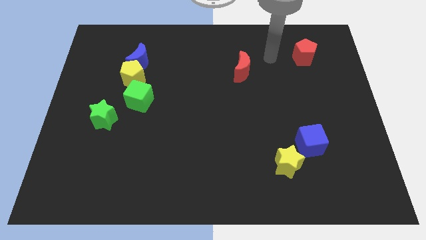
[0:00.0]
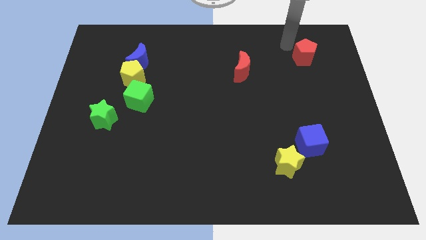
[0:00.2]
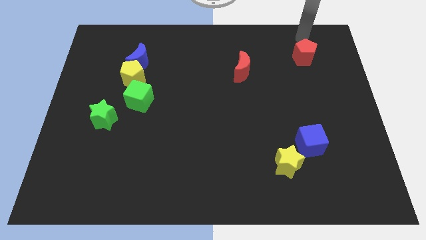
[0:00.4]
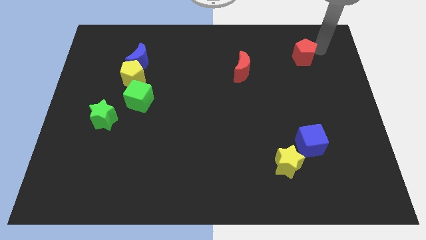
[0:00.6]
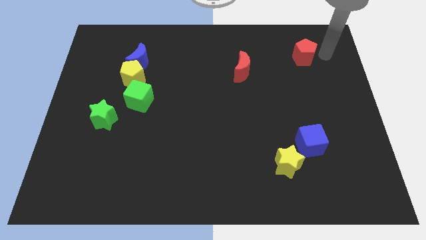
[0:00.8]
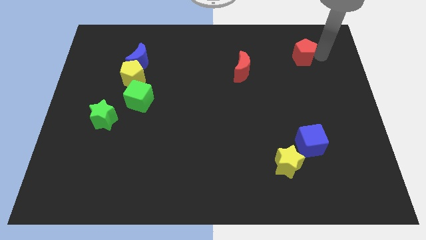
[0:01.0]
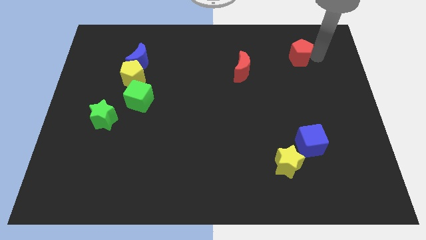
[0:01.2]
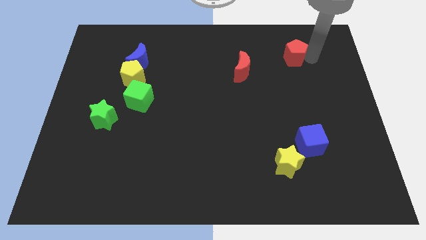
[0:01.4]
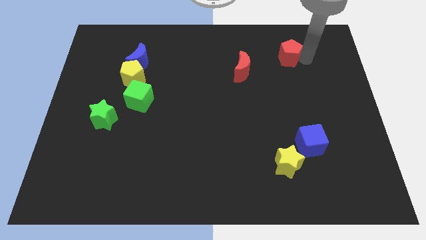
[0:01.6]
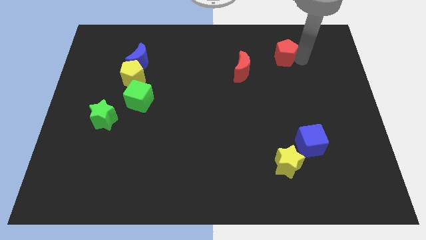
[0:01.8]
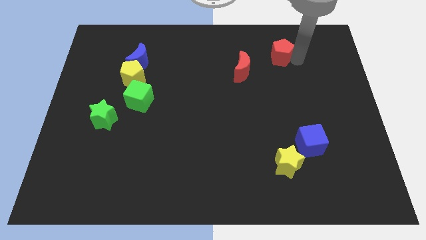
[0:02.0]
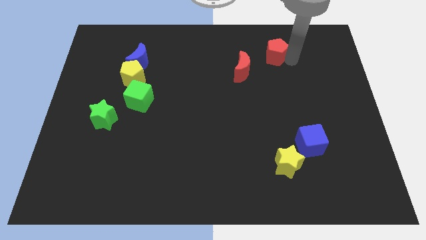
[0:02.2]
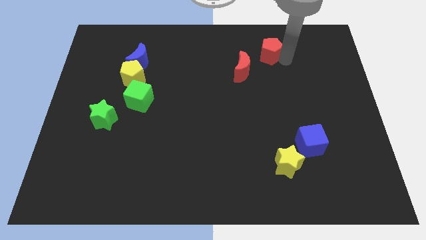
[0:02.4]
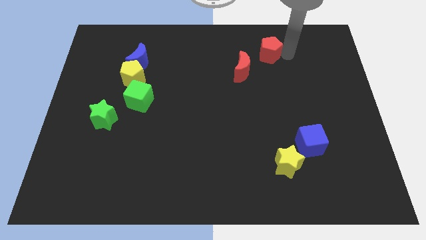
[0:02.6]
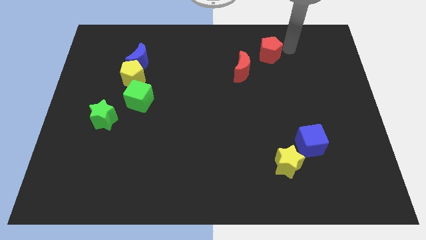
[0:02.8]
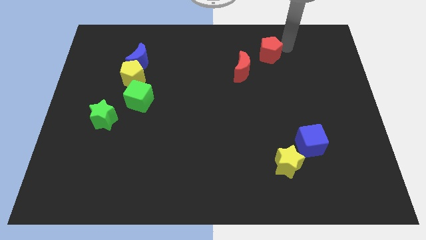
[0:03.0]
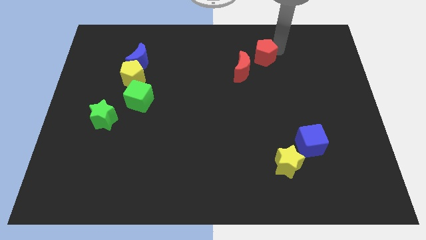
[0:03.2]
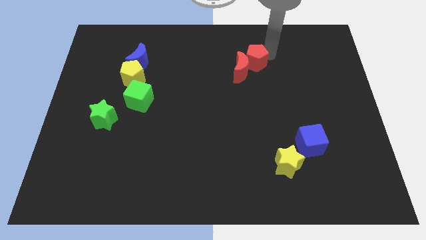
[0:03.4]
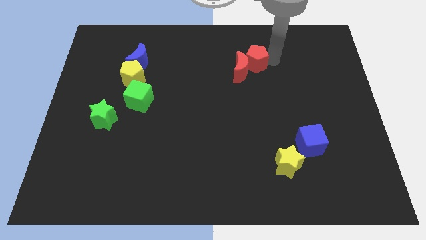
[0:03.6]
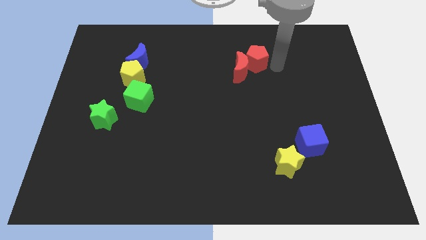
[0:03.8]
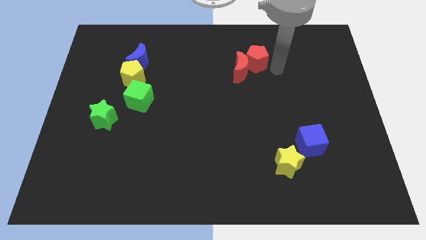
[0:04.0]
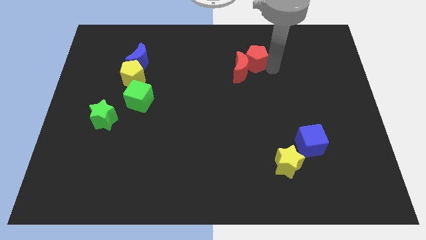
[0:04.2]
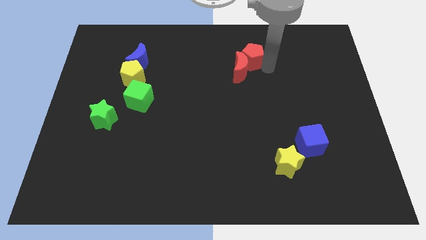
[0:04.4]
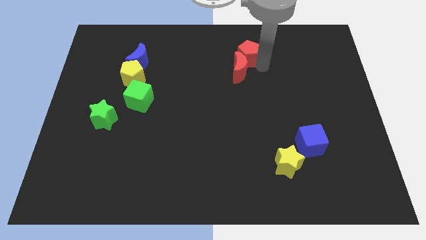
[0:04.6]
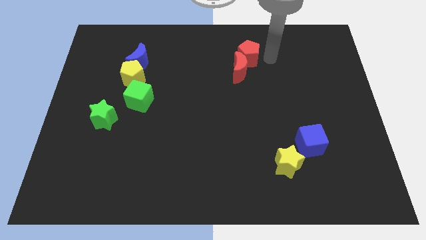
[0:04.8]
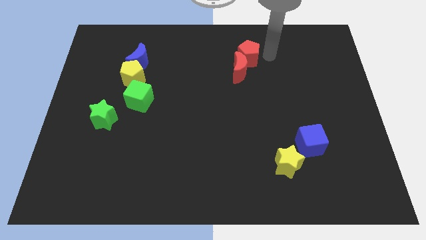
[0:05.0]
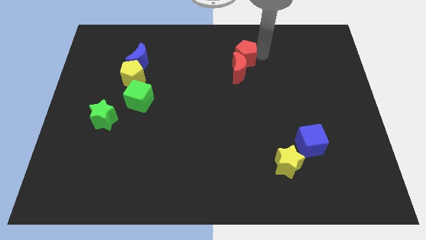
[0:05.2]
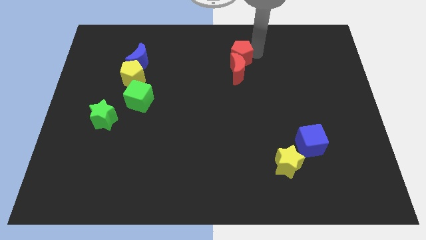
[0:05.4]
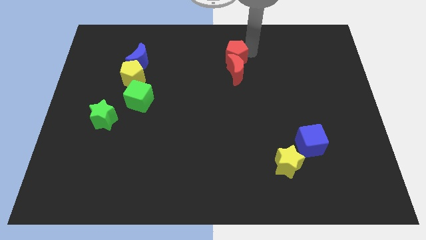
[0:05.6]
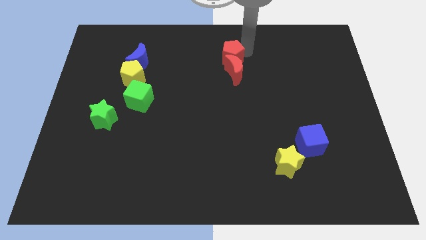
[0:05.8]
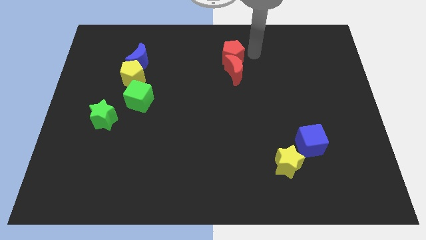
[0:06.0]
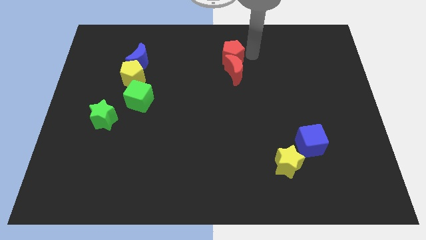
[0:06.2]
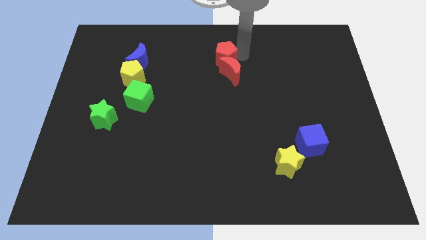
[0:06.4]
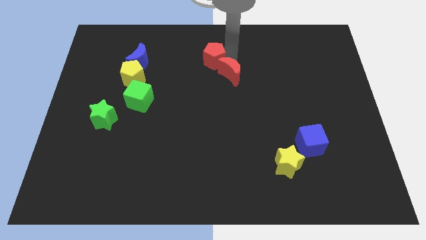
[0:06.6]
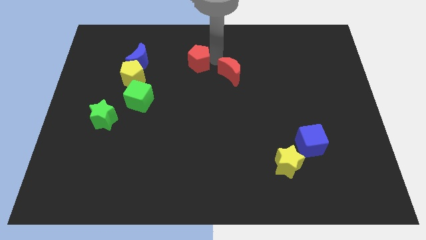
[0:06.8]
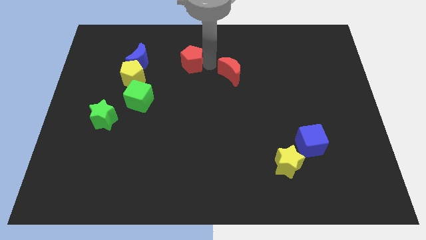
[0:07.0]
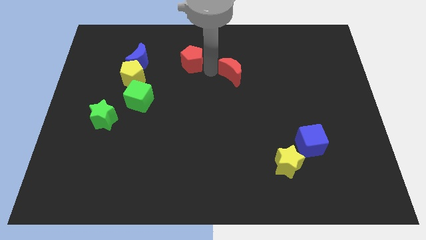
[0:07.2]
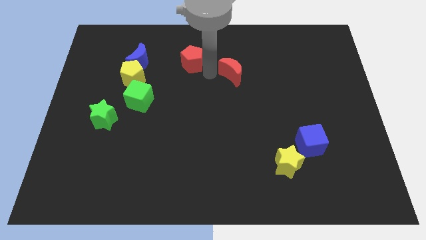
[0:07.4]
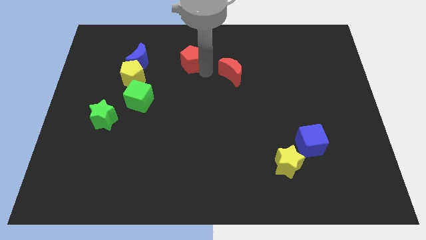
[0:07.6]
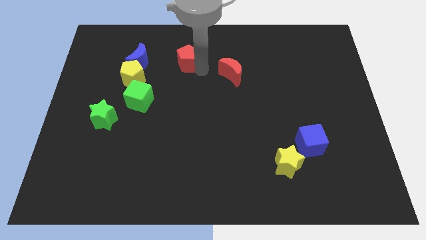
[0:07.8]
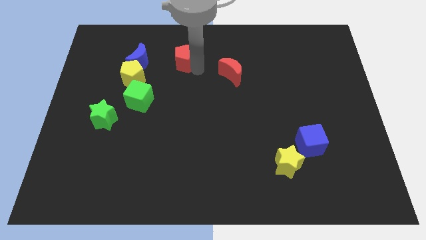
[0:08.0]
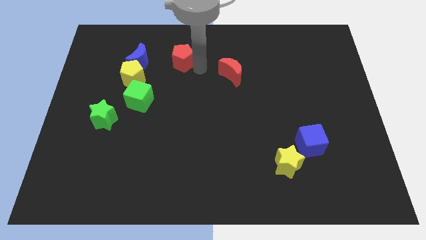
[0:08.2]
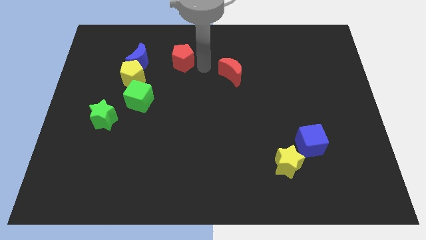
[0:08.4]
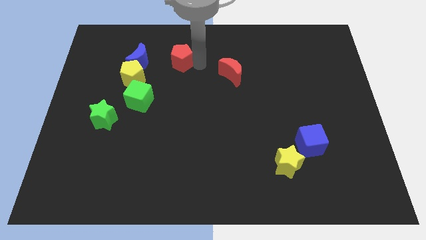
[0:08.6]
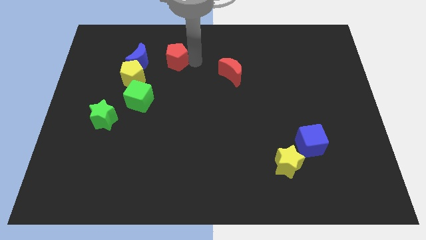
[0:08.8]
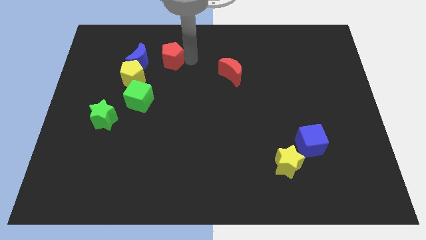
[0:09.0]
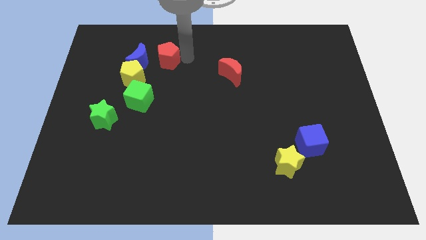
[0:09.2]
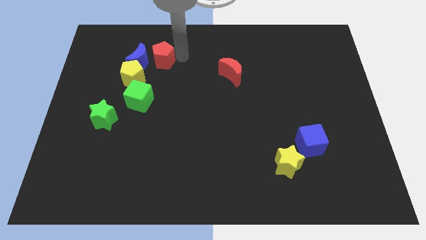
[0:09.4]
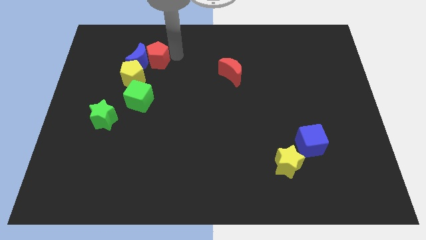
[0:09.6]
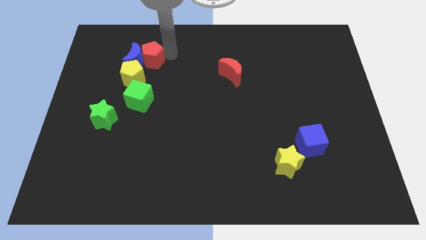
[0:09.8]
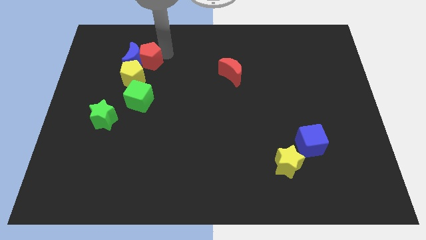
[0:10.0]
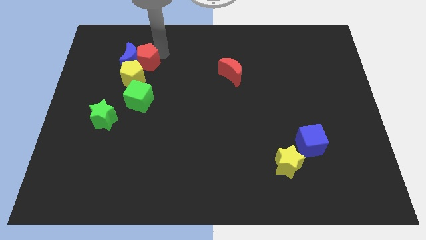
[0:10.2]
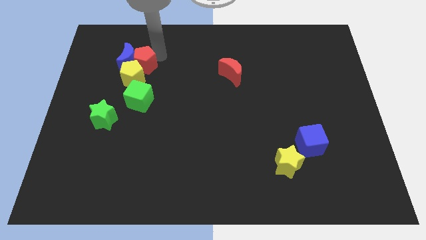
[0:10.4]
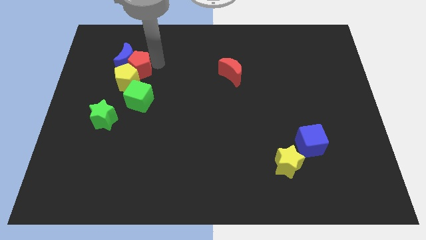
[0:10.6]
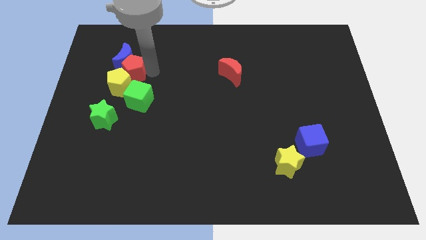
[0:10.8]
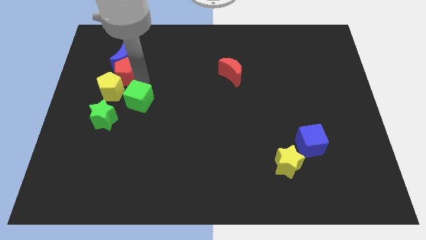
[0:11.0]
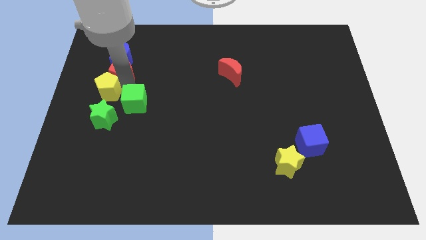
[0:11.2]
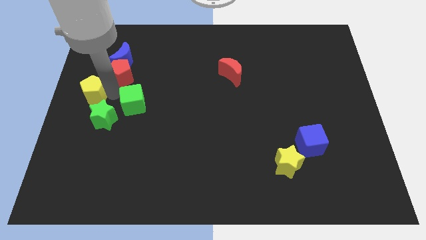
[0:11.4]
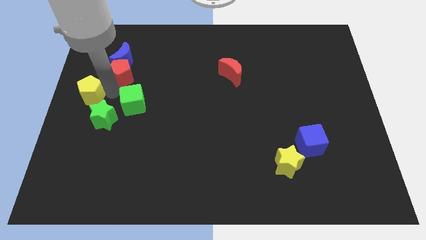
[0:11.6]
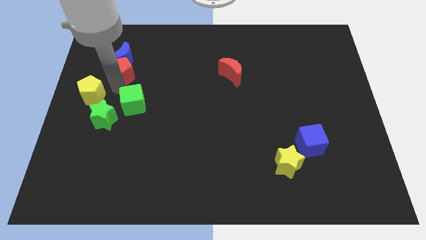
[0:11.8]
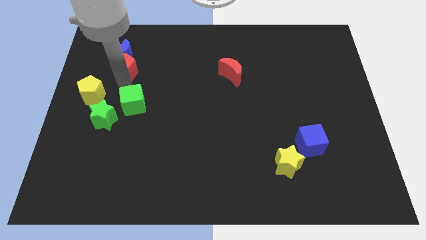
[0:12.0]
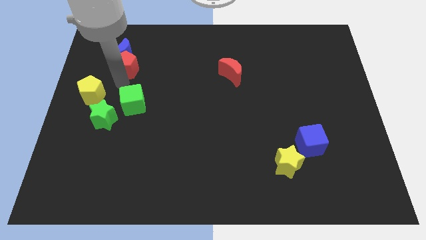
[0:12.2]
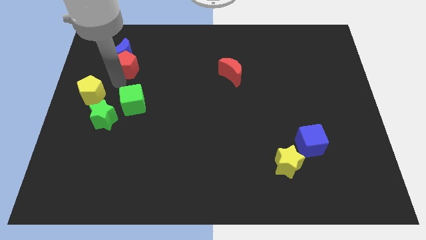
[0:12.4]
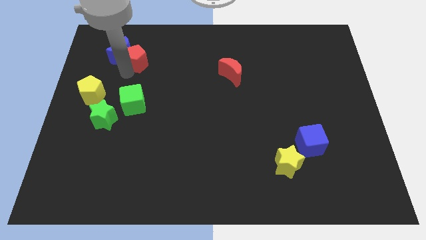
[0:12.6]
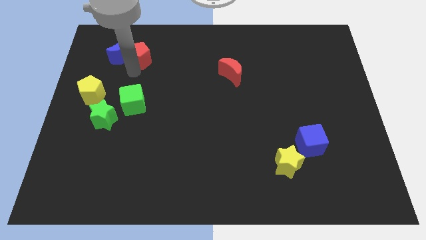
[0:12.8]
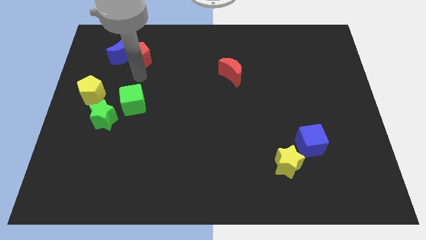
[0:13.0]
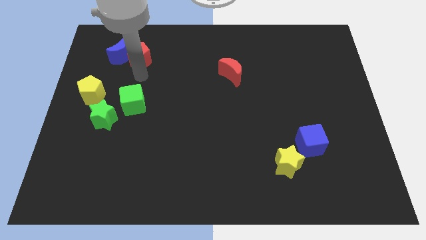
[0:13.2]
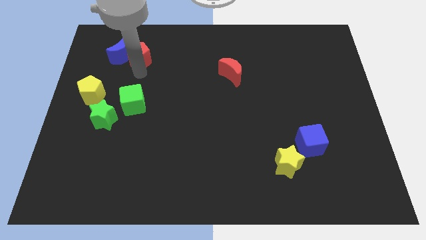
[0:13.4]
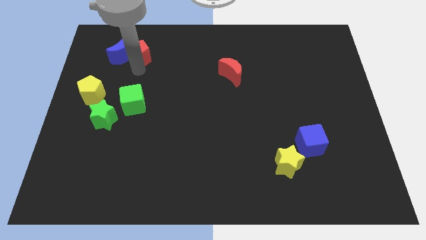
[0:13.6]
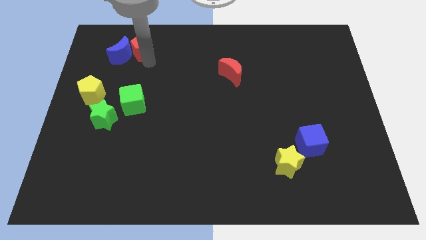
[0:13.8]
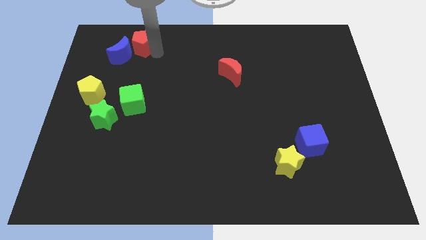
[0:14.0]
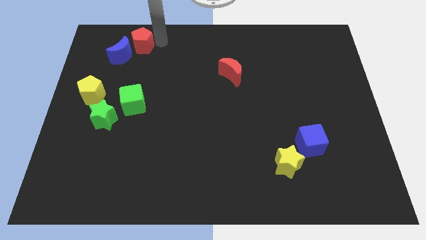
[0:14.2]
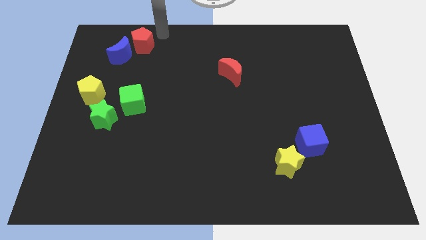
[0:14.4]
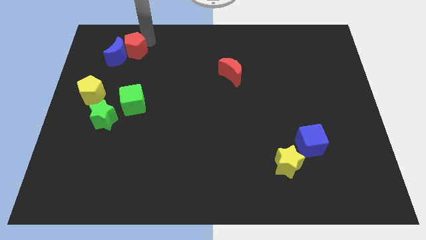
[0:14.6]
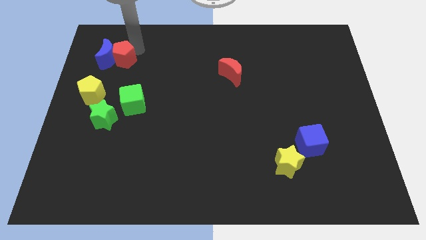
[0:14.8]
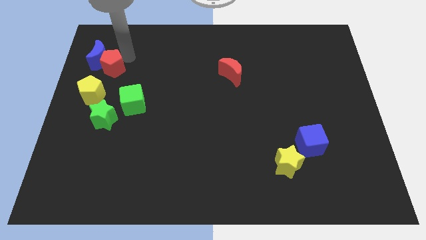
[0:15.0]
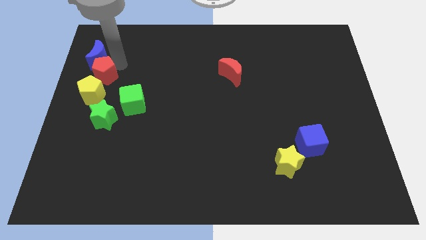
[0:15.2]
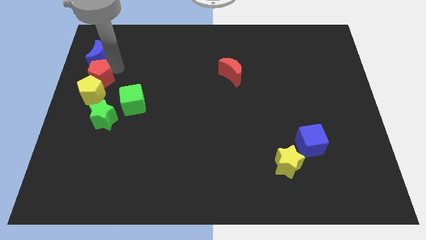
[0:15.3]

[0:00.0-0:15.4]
push the red pentagon to the left side of the board
